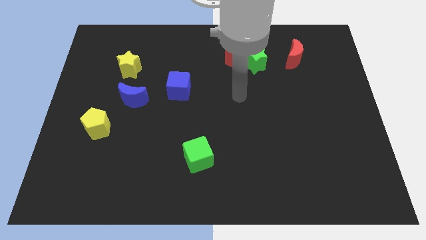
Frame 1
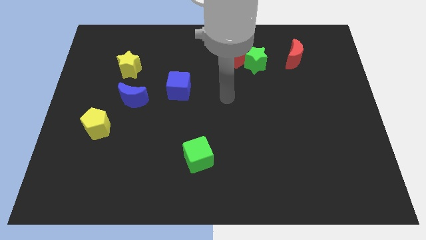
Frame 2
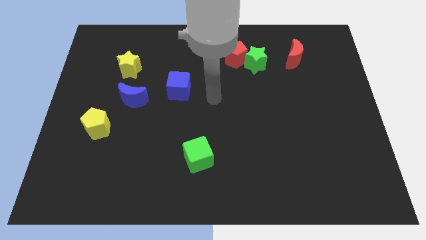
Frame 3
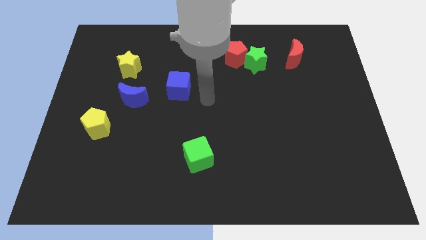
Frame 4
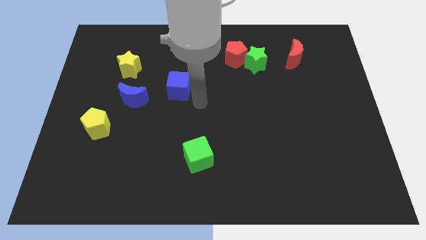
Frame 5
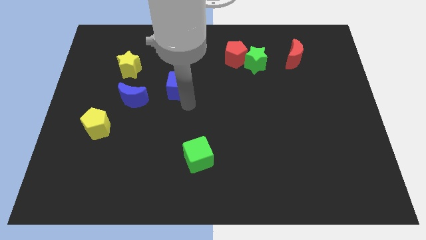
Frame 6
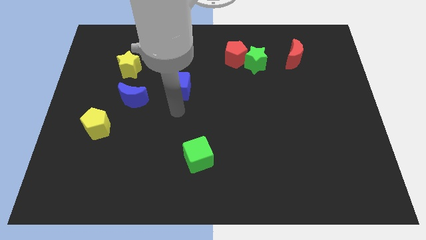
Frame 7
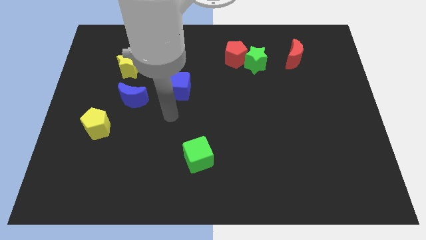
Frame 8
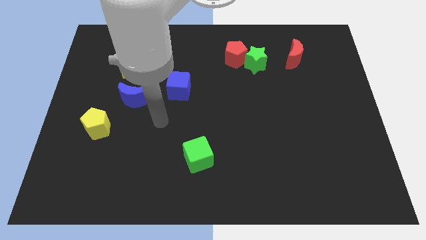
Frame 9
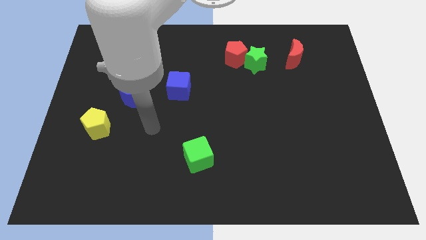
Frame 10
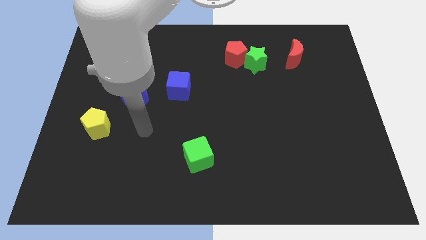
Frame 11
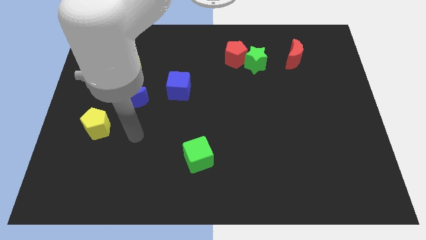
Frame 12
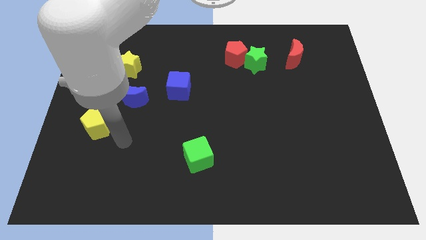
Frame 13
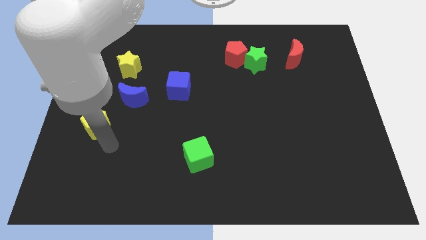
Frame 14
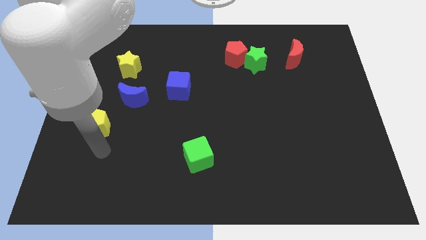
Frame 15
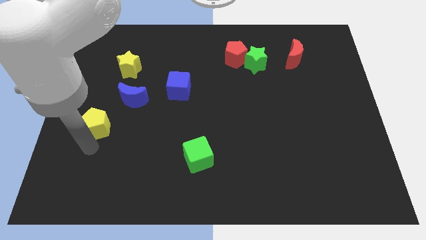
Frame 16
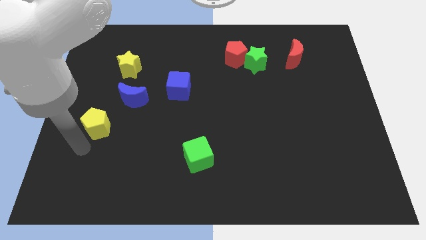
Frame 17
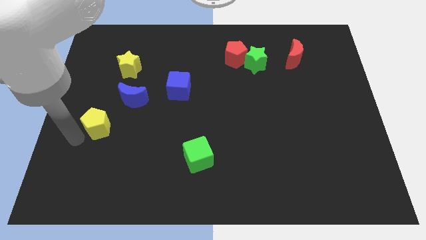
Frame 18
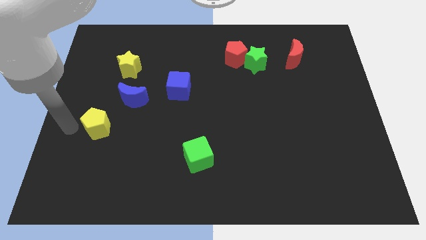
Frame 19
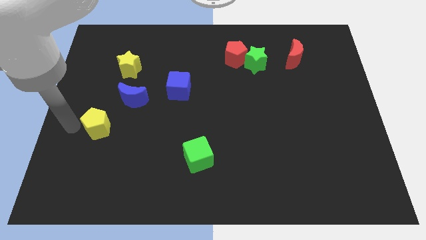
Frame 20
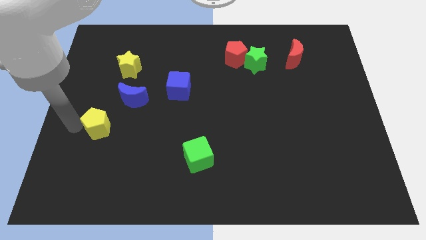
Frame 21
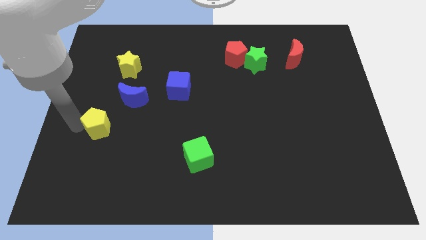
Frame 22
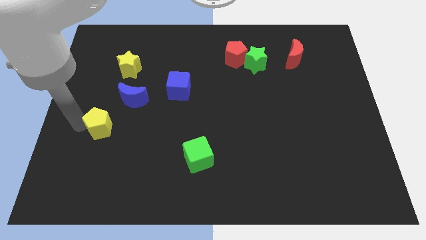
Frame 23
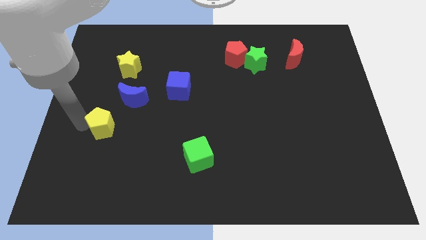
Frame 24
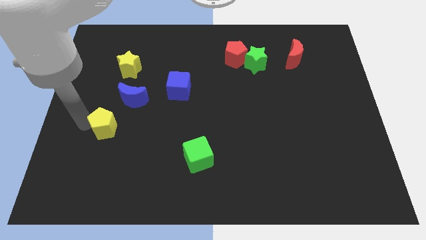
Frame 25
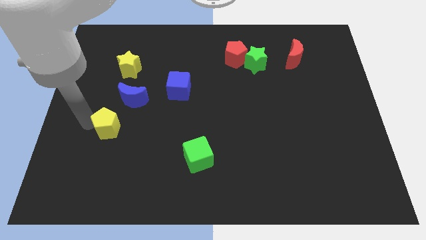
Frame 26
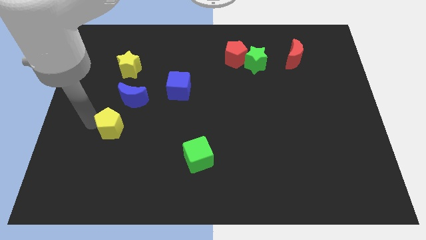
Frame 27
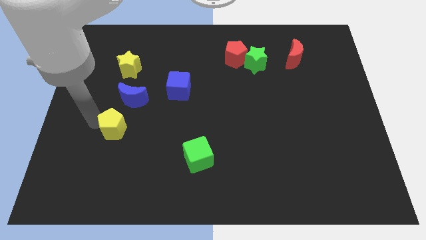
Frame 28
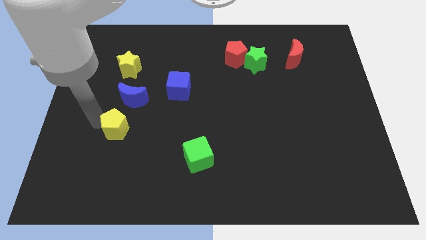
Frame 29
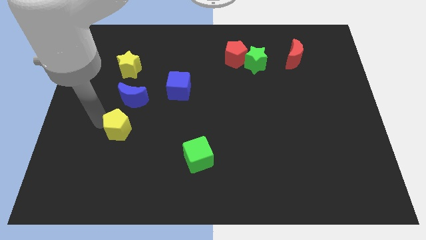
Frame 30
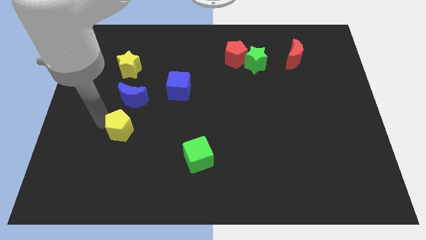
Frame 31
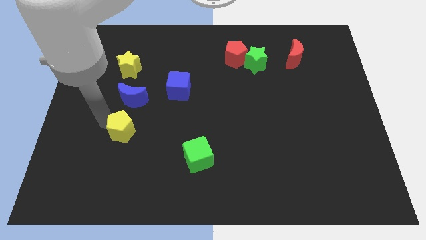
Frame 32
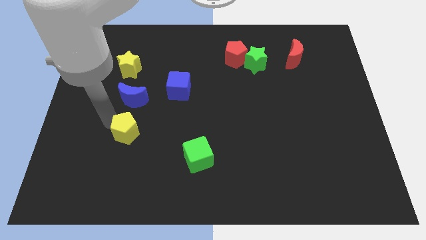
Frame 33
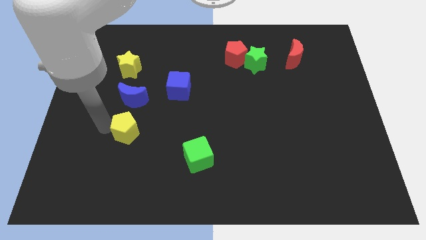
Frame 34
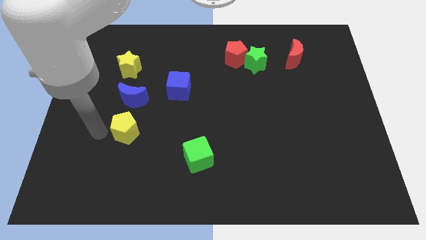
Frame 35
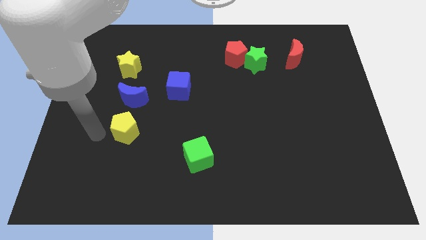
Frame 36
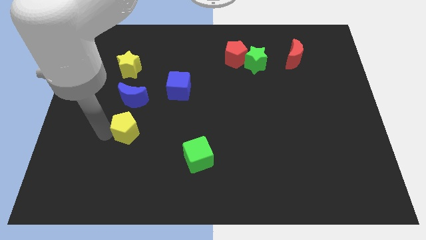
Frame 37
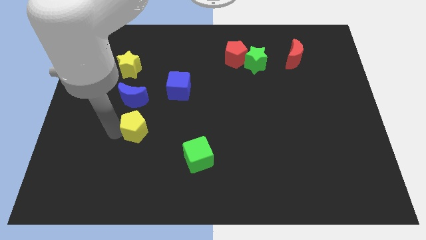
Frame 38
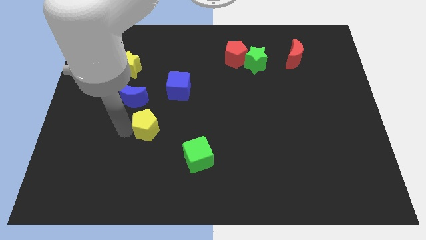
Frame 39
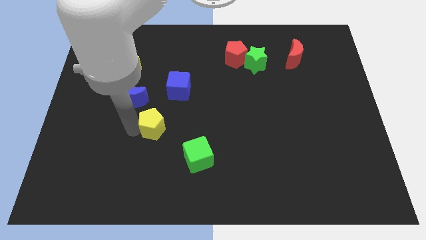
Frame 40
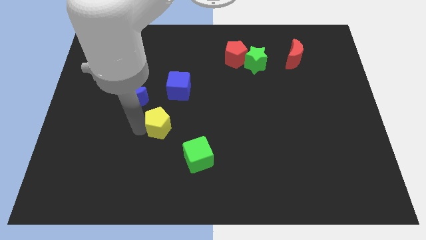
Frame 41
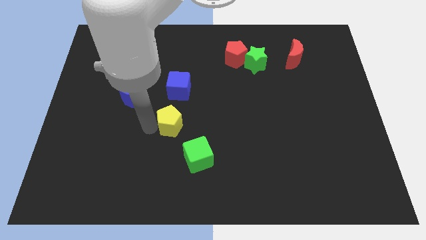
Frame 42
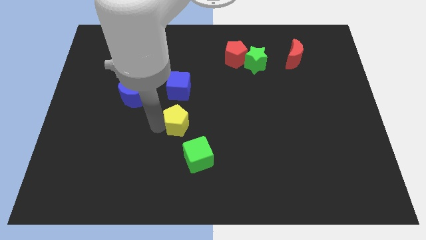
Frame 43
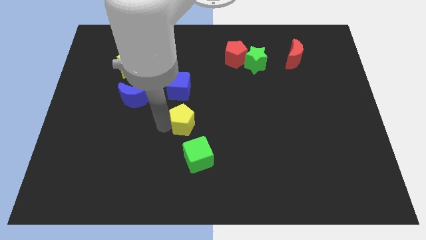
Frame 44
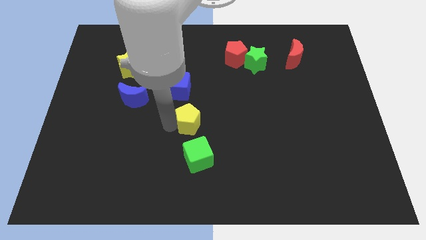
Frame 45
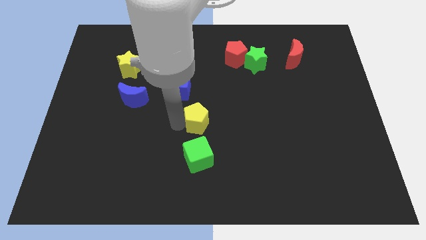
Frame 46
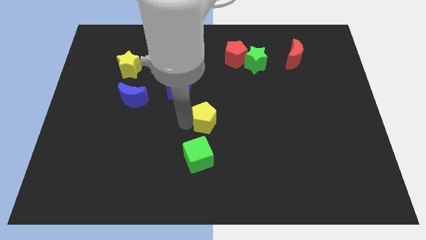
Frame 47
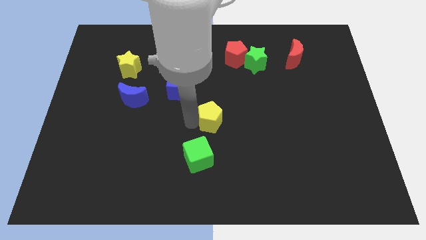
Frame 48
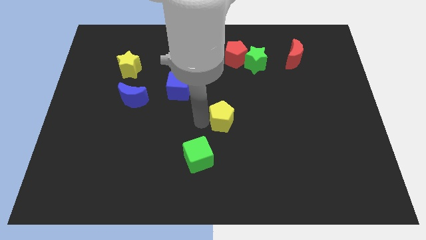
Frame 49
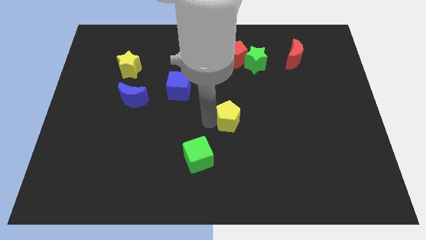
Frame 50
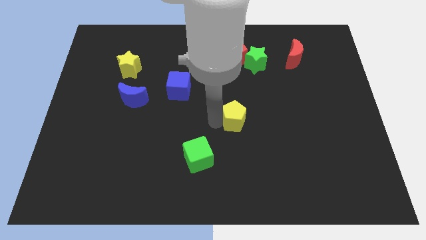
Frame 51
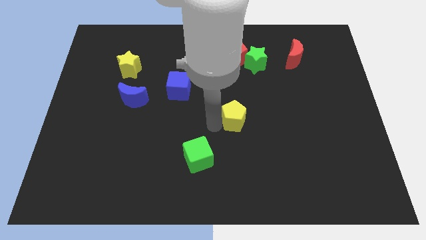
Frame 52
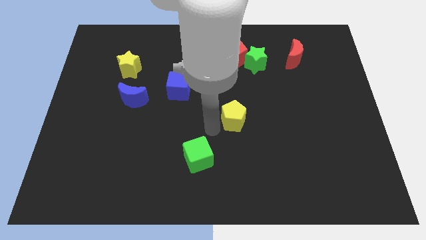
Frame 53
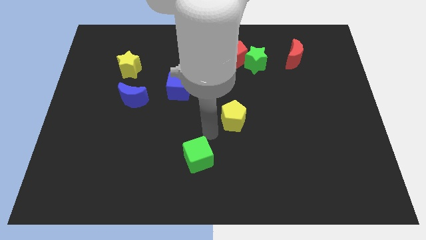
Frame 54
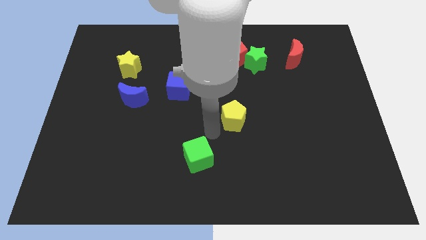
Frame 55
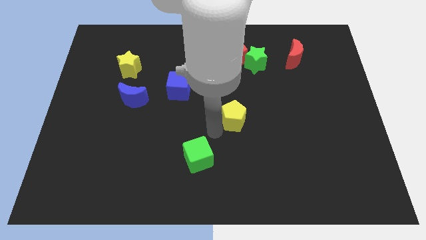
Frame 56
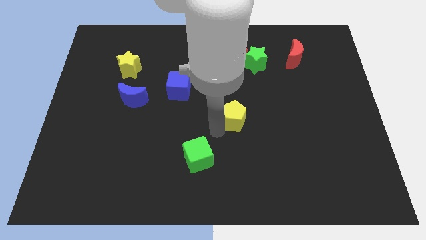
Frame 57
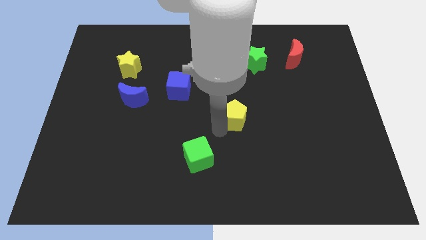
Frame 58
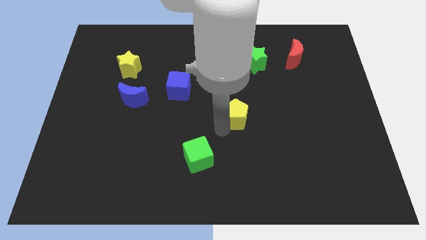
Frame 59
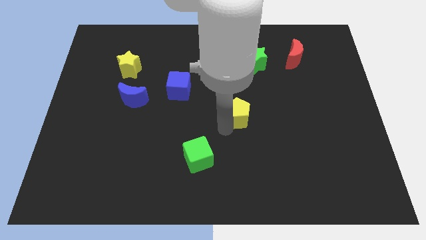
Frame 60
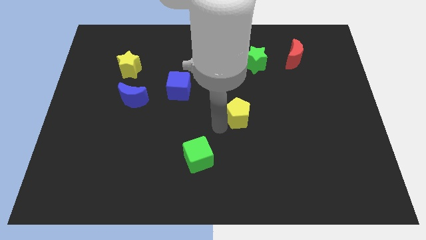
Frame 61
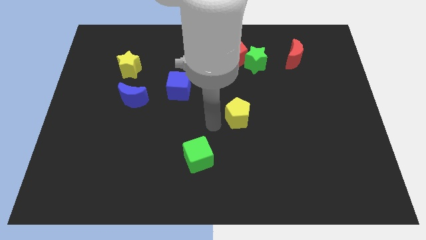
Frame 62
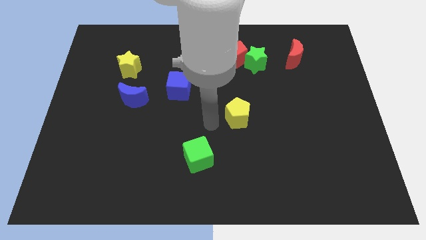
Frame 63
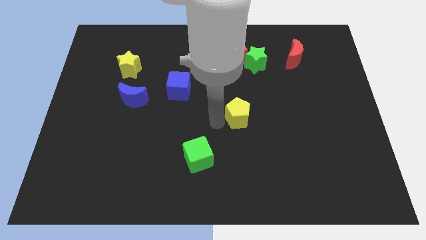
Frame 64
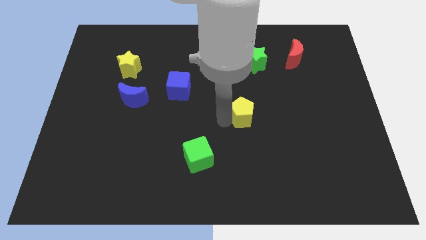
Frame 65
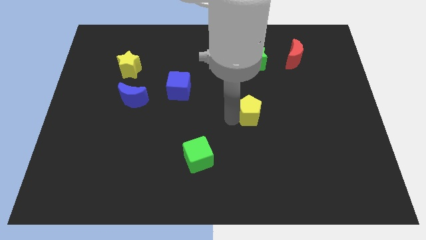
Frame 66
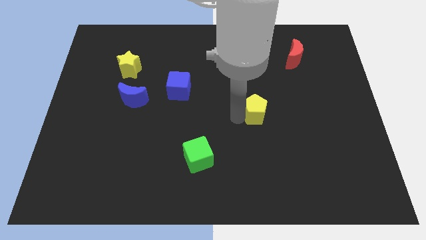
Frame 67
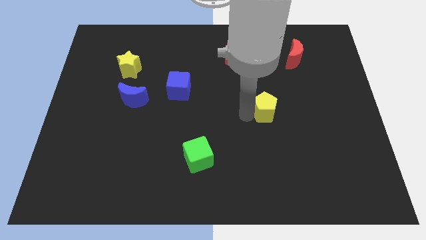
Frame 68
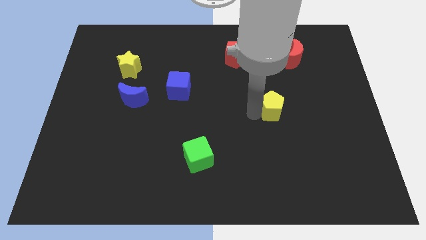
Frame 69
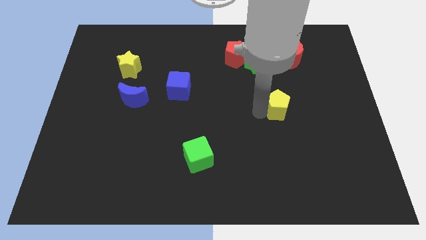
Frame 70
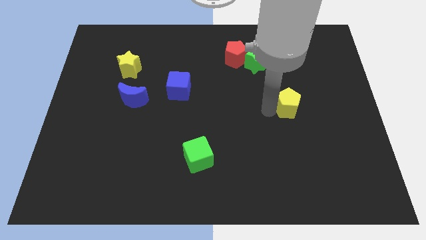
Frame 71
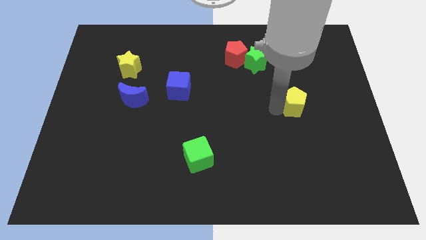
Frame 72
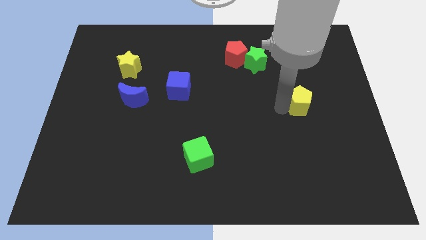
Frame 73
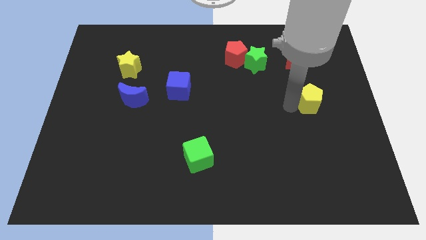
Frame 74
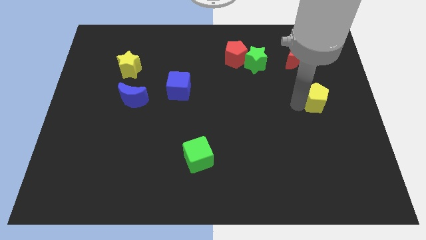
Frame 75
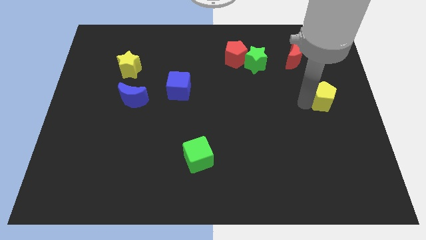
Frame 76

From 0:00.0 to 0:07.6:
push the yellow pentagon to the center right
